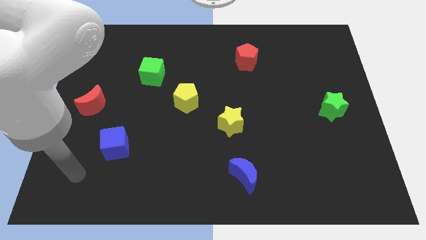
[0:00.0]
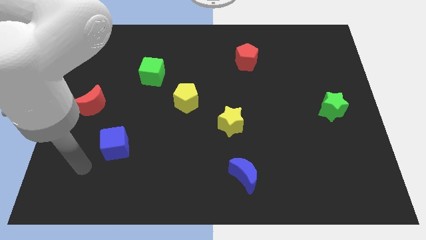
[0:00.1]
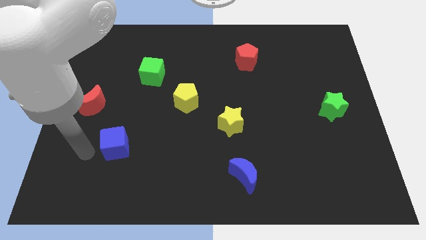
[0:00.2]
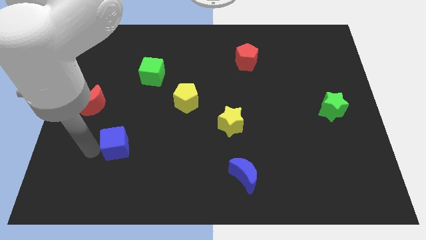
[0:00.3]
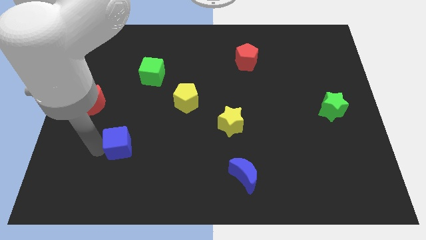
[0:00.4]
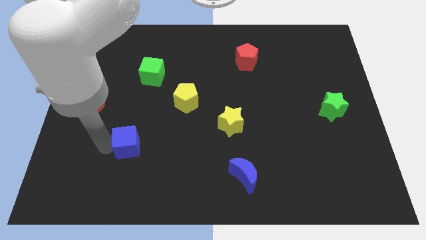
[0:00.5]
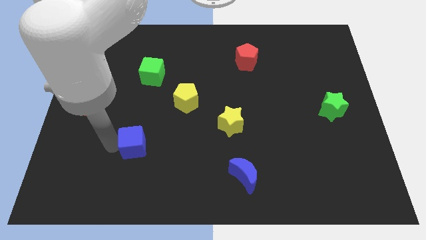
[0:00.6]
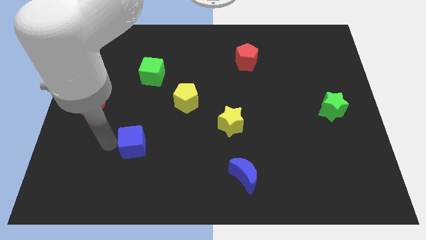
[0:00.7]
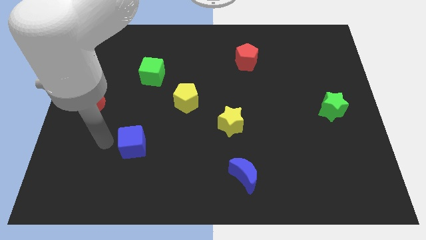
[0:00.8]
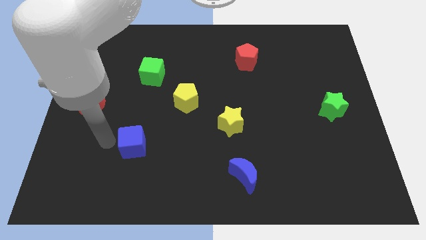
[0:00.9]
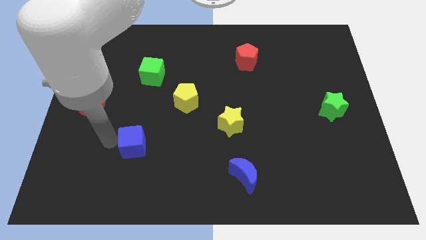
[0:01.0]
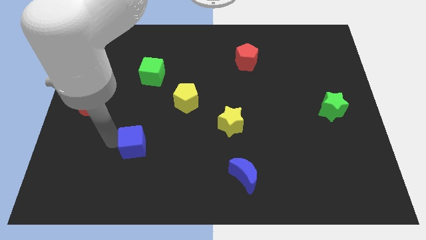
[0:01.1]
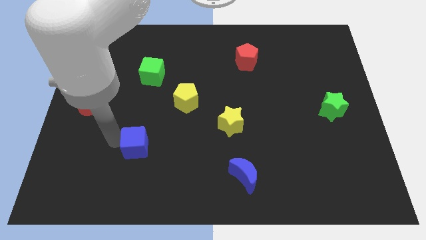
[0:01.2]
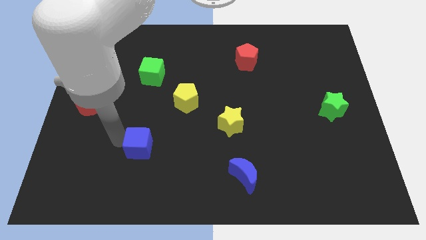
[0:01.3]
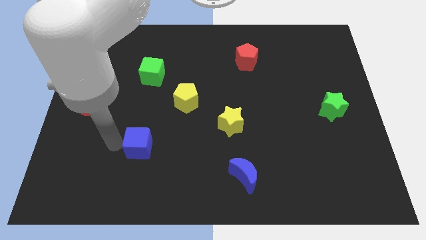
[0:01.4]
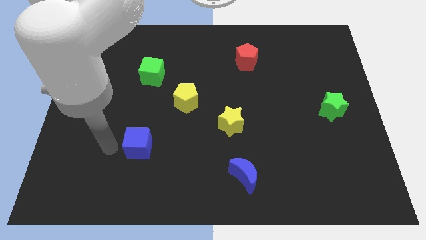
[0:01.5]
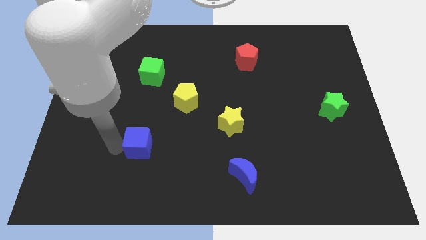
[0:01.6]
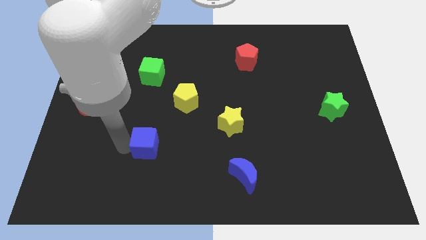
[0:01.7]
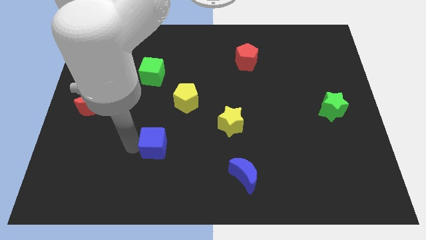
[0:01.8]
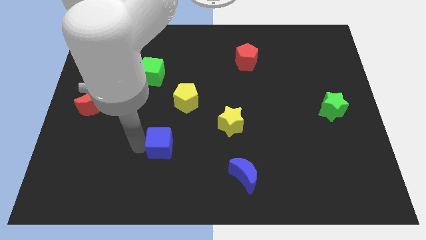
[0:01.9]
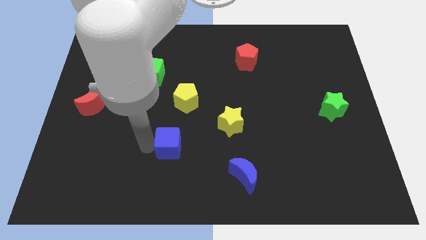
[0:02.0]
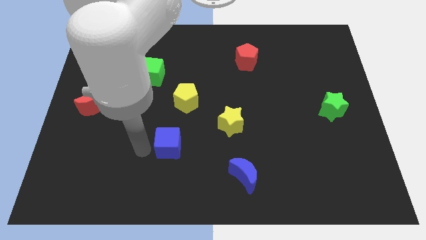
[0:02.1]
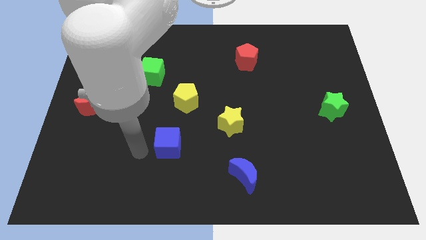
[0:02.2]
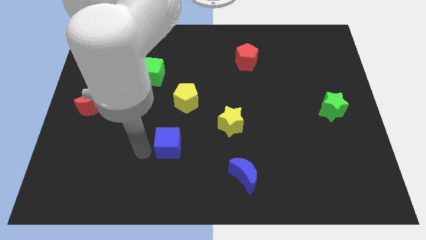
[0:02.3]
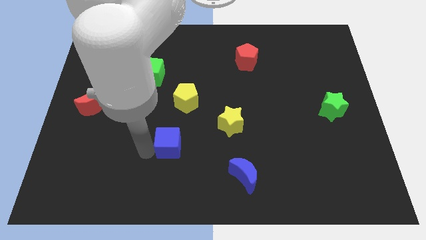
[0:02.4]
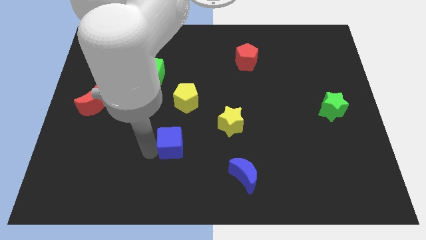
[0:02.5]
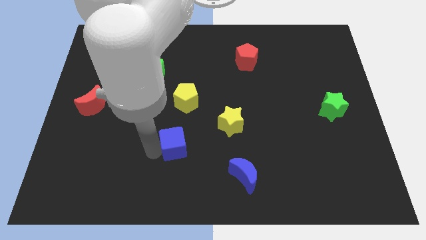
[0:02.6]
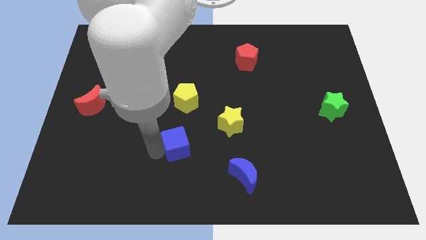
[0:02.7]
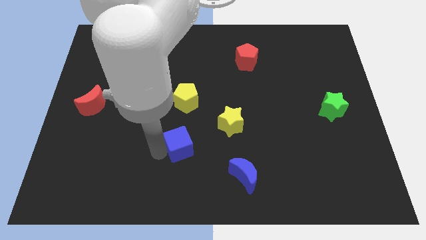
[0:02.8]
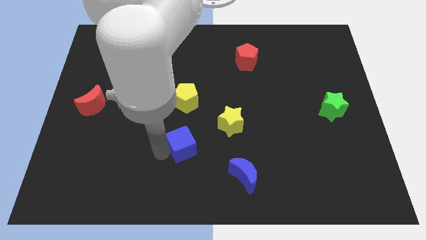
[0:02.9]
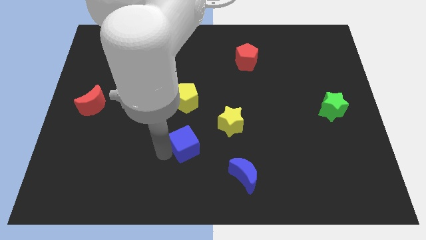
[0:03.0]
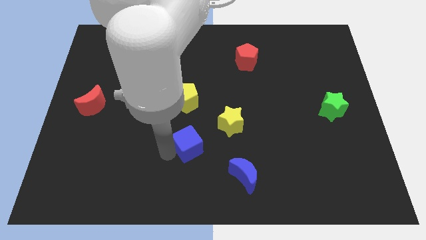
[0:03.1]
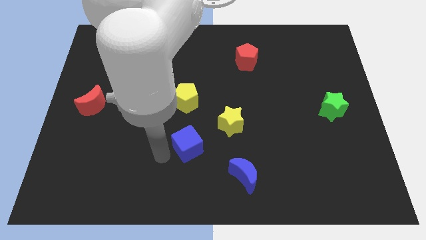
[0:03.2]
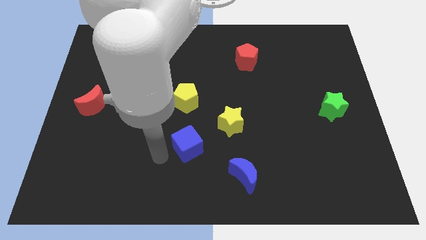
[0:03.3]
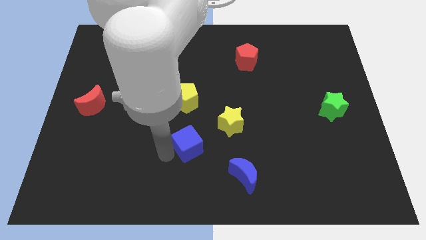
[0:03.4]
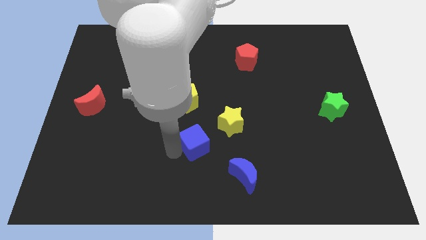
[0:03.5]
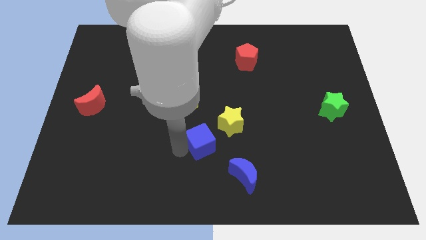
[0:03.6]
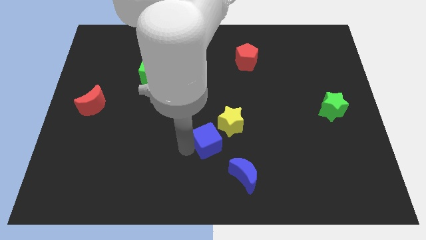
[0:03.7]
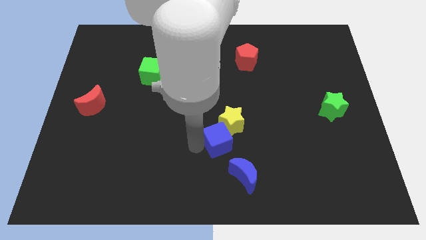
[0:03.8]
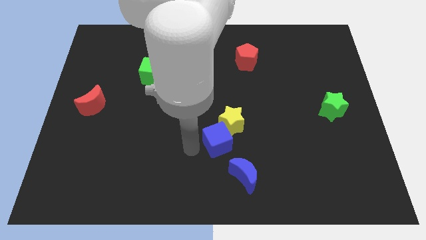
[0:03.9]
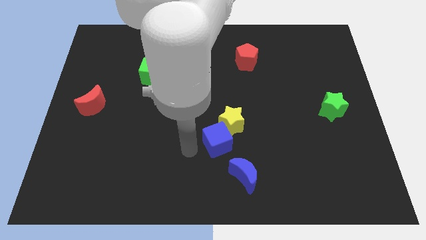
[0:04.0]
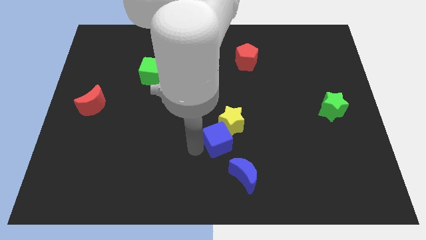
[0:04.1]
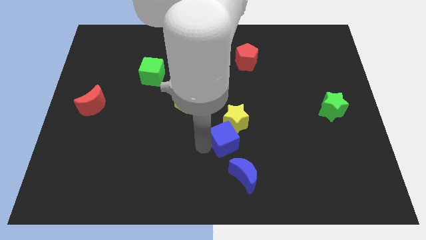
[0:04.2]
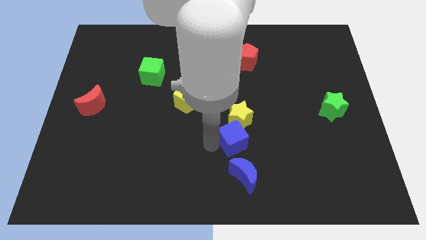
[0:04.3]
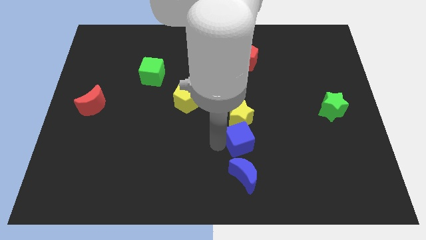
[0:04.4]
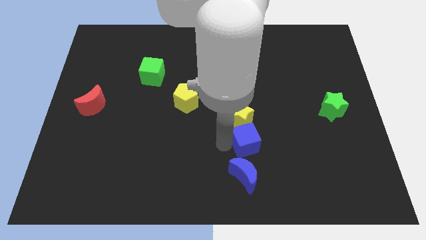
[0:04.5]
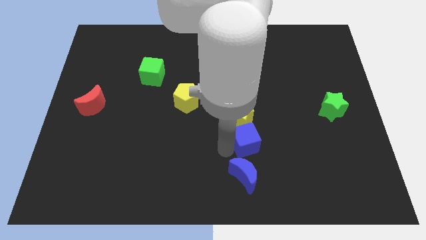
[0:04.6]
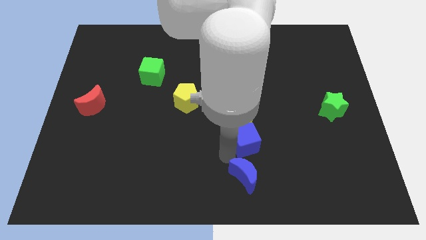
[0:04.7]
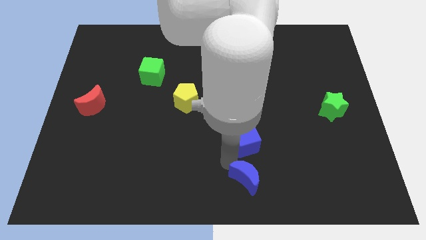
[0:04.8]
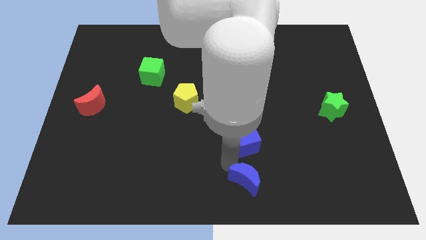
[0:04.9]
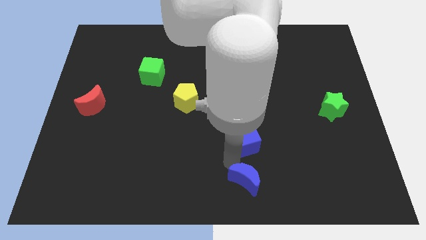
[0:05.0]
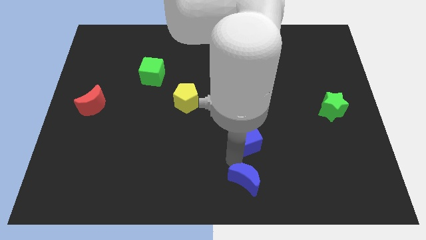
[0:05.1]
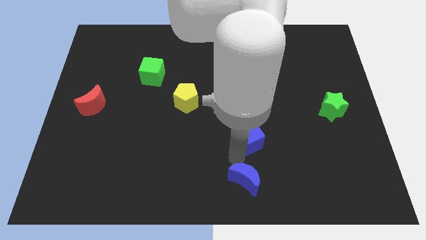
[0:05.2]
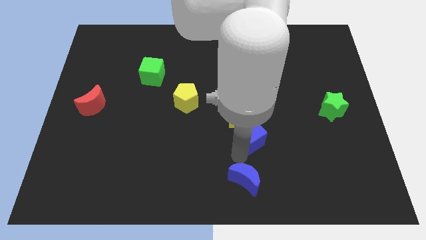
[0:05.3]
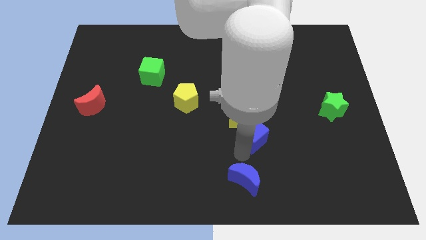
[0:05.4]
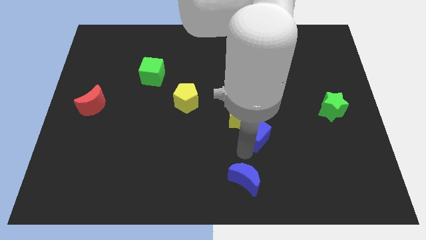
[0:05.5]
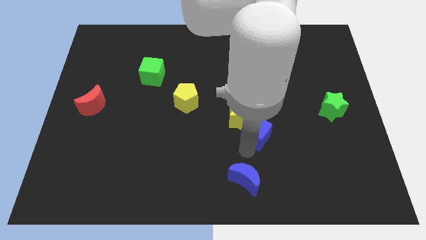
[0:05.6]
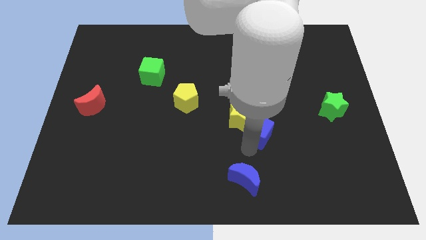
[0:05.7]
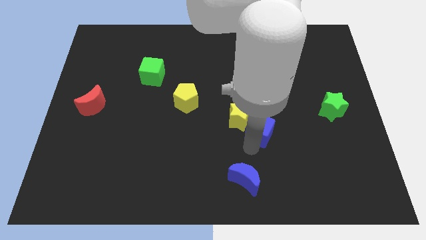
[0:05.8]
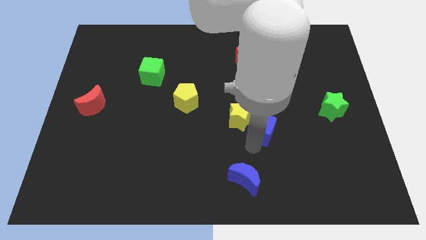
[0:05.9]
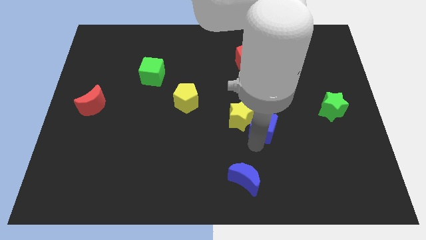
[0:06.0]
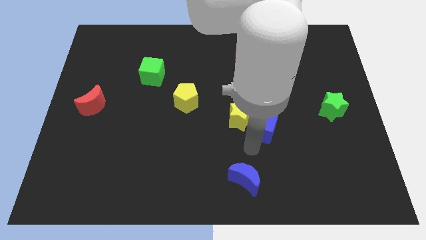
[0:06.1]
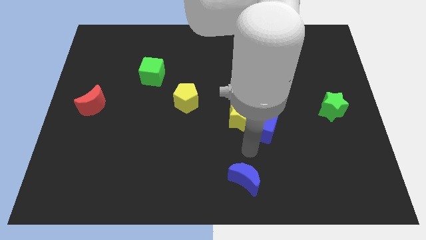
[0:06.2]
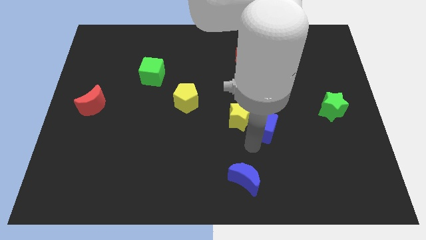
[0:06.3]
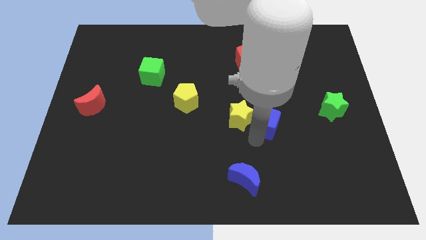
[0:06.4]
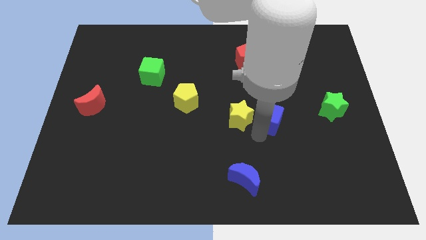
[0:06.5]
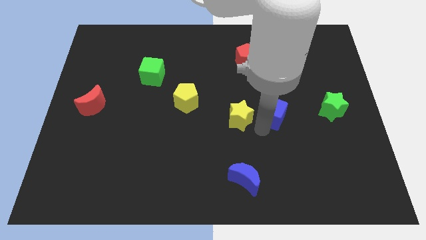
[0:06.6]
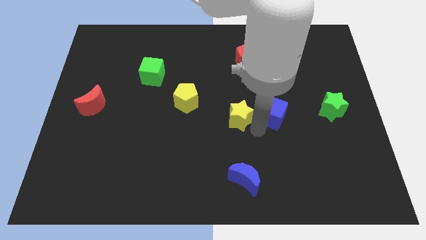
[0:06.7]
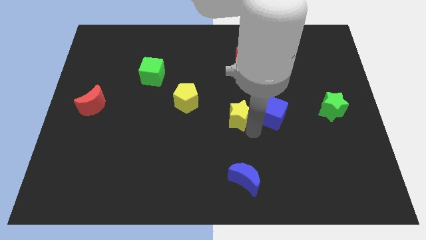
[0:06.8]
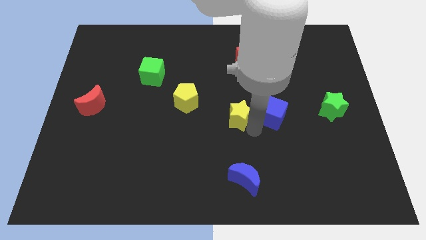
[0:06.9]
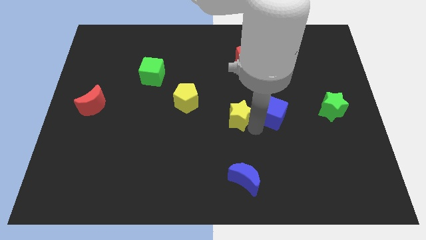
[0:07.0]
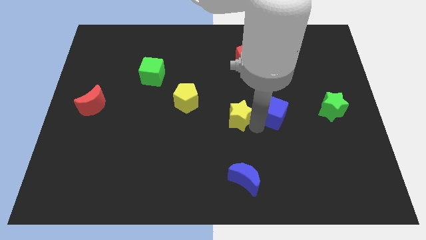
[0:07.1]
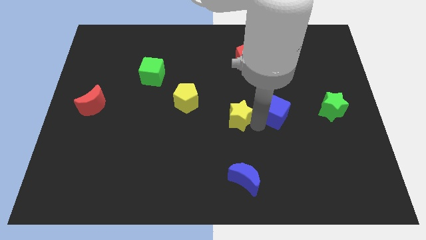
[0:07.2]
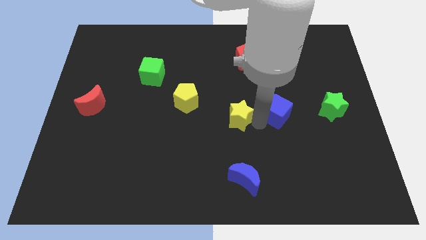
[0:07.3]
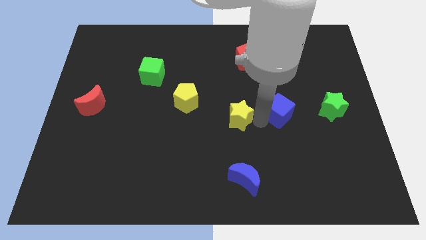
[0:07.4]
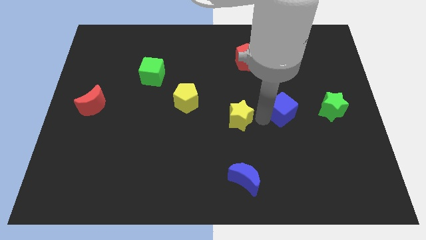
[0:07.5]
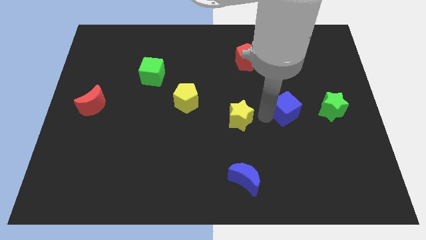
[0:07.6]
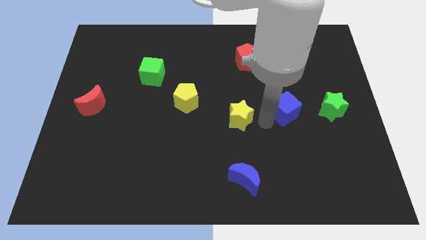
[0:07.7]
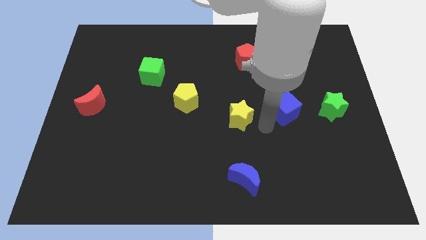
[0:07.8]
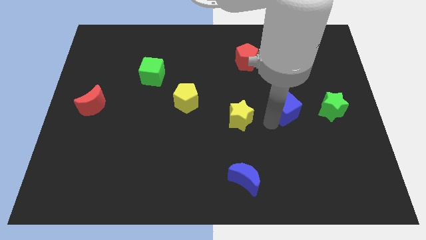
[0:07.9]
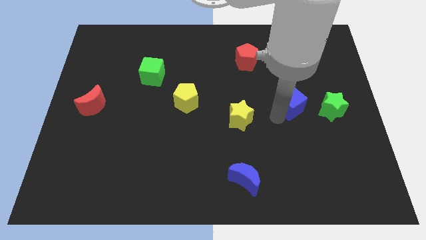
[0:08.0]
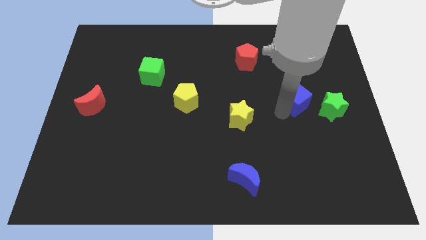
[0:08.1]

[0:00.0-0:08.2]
put the blue cube to the top left of the green star
